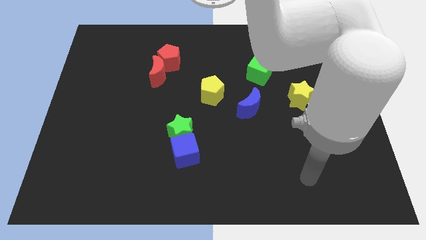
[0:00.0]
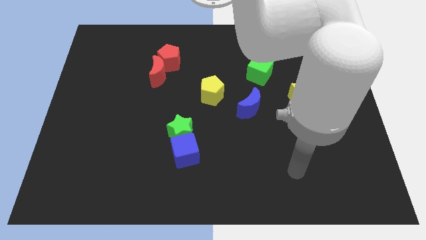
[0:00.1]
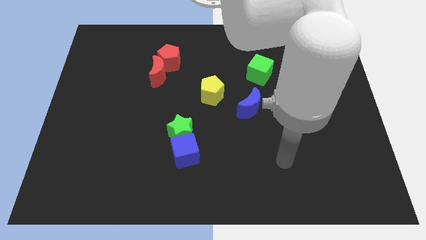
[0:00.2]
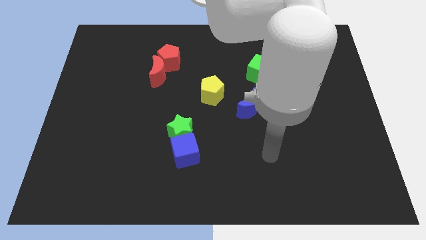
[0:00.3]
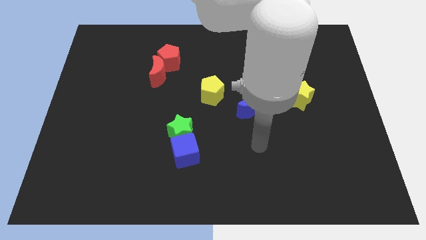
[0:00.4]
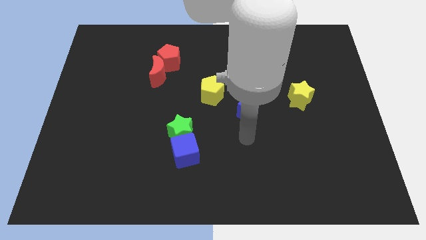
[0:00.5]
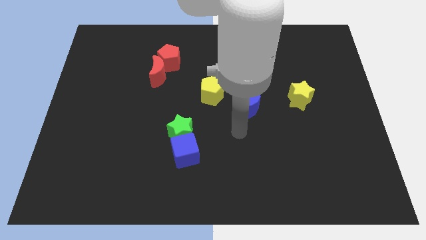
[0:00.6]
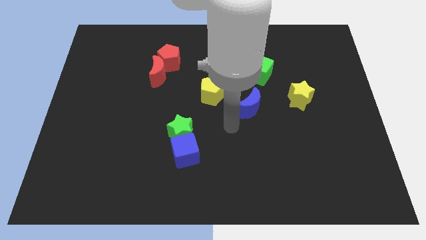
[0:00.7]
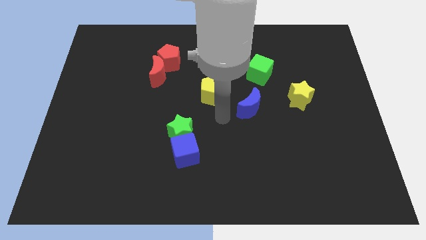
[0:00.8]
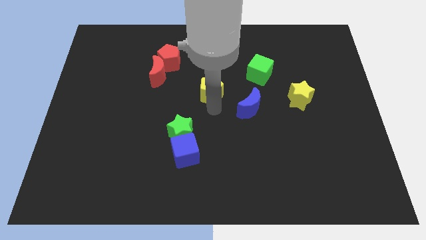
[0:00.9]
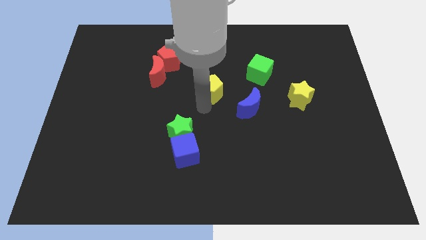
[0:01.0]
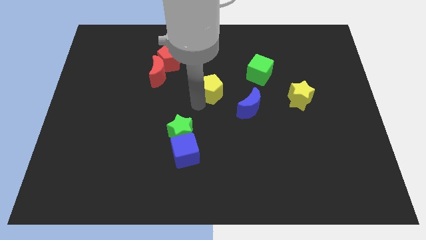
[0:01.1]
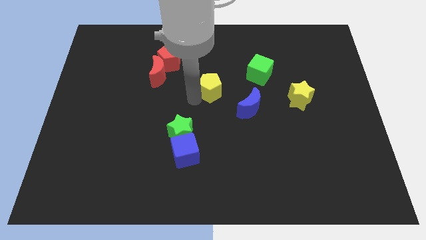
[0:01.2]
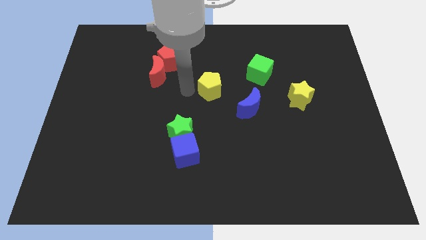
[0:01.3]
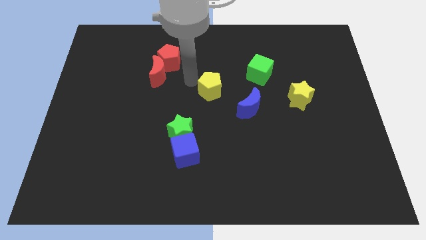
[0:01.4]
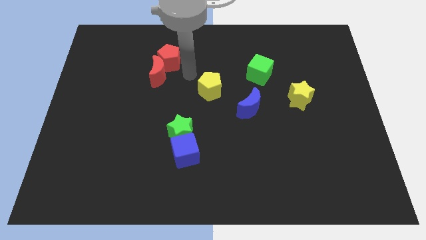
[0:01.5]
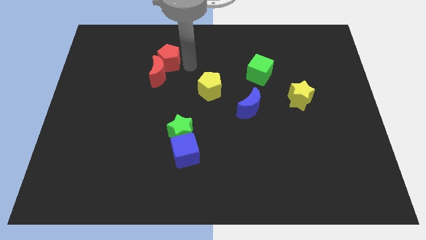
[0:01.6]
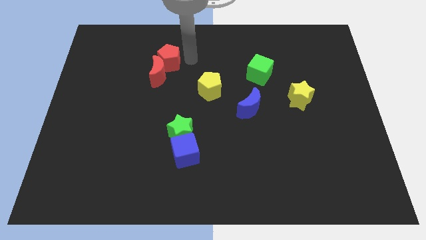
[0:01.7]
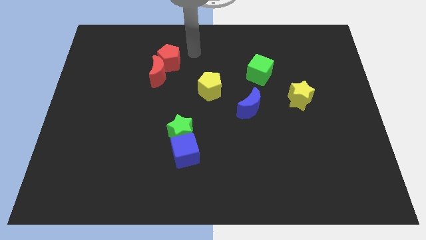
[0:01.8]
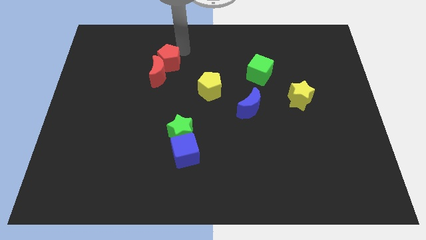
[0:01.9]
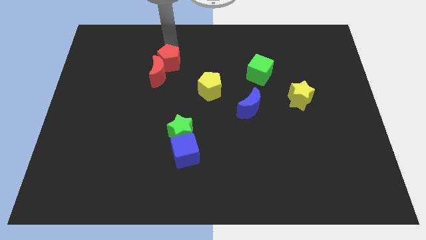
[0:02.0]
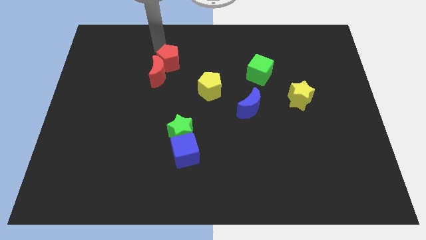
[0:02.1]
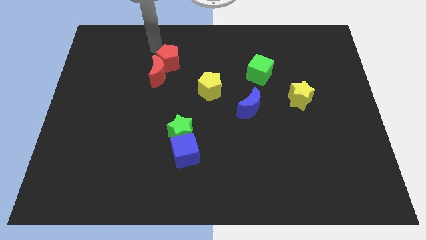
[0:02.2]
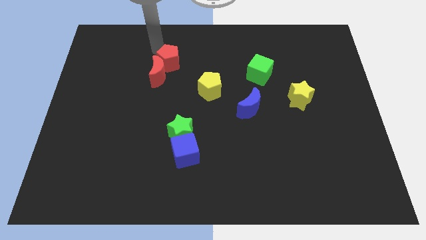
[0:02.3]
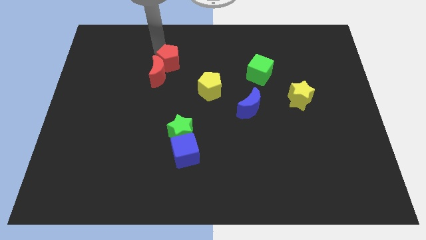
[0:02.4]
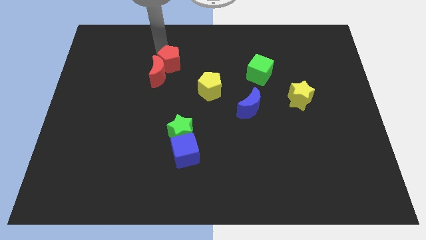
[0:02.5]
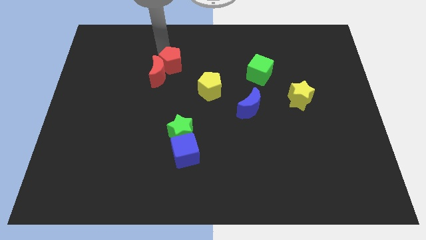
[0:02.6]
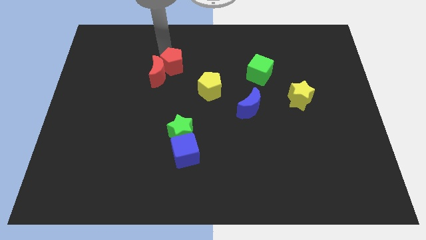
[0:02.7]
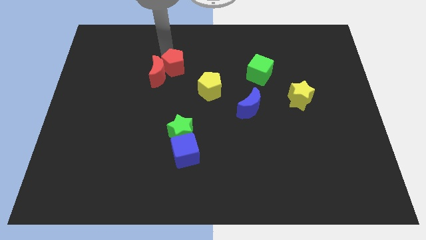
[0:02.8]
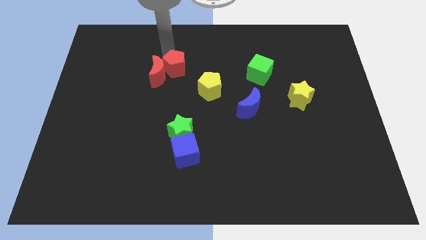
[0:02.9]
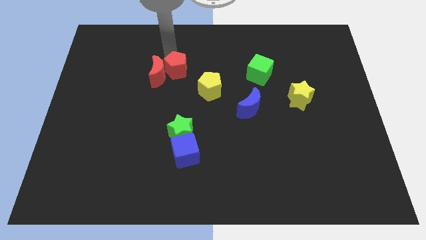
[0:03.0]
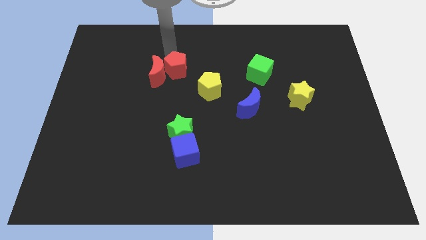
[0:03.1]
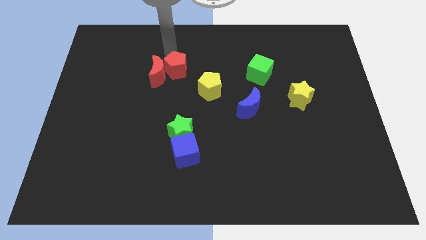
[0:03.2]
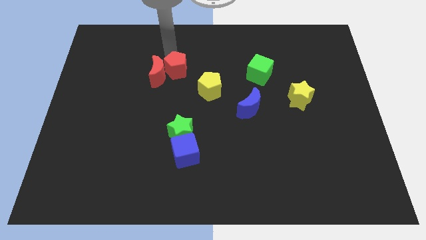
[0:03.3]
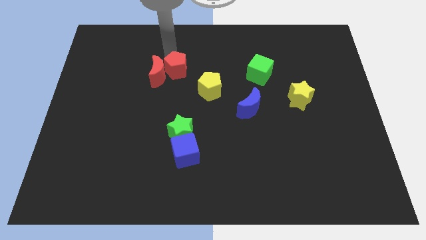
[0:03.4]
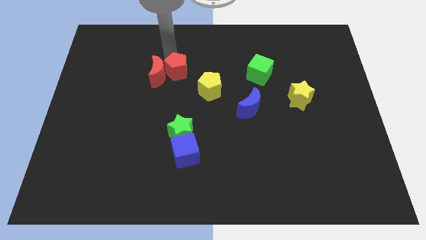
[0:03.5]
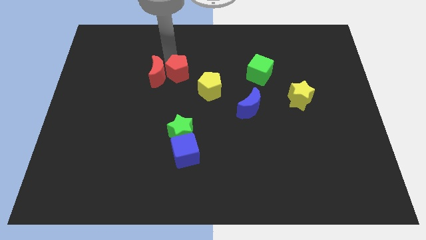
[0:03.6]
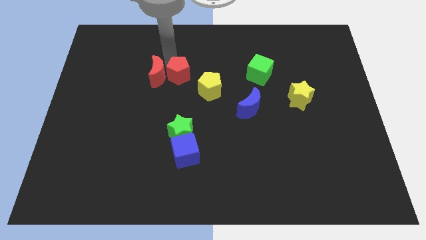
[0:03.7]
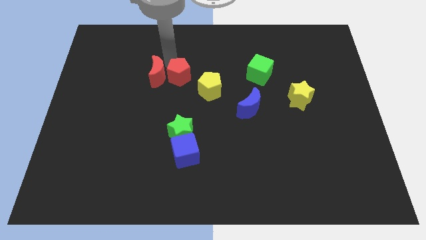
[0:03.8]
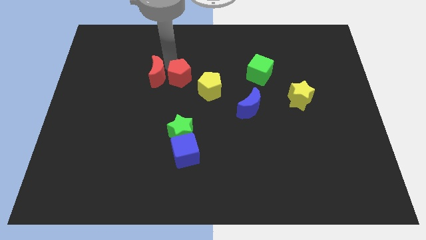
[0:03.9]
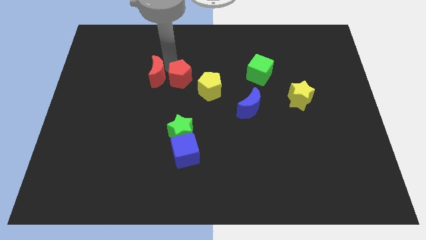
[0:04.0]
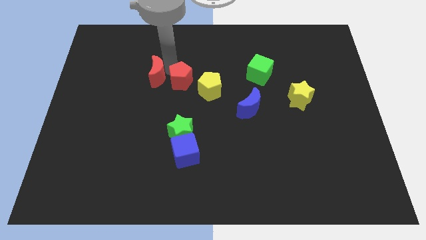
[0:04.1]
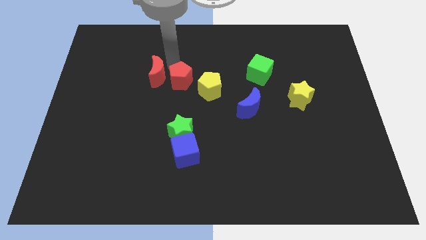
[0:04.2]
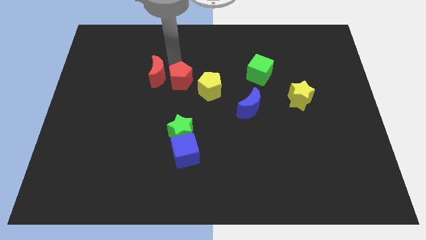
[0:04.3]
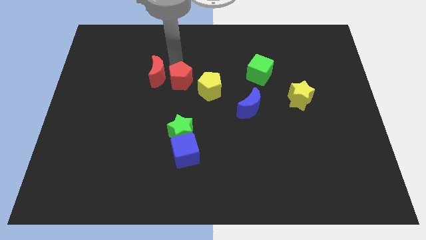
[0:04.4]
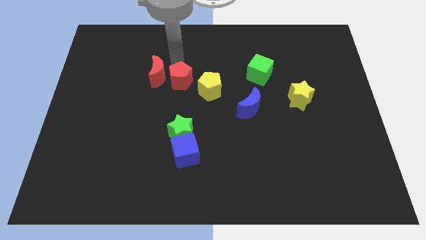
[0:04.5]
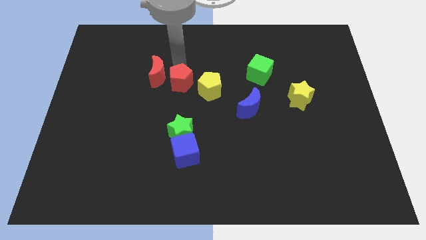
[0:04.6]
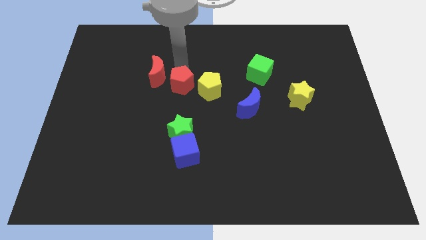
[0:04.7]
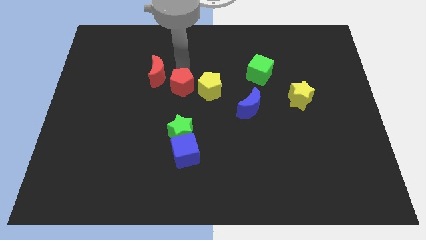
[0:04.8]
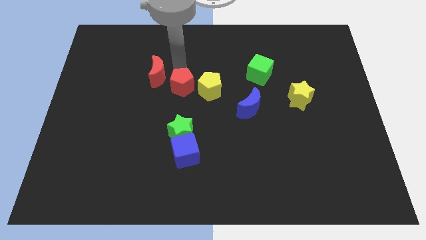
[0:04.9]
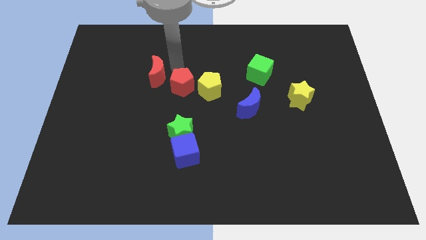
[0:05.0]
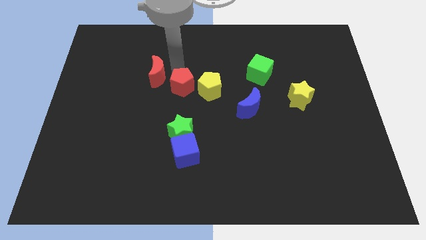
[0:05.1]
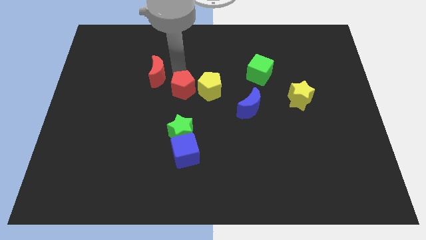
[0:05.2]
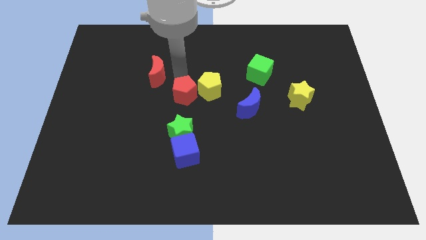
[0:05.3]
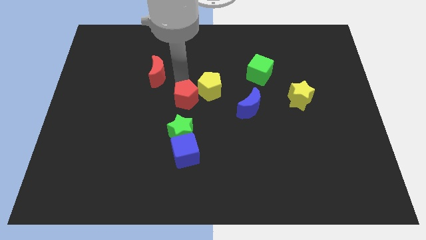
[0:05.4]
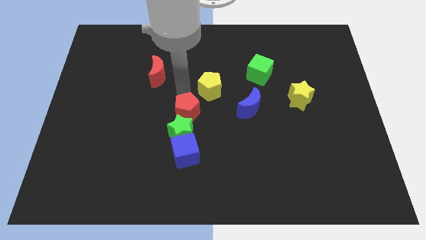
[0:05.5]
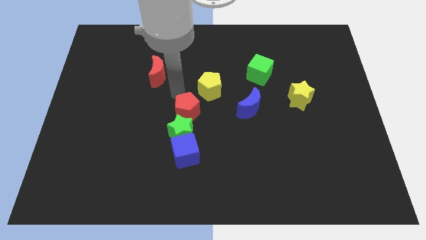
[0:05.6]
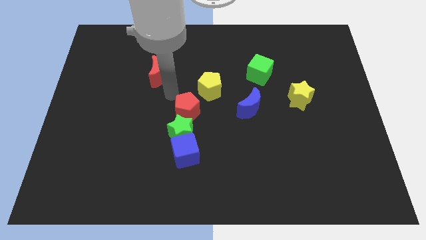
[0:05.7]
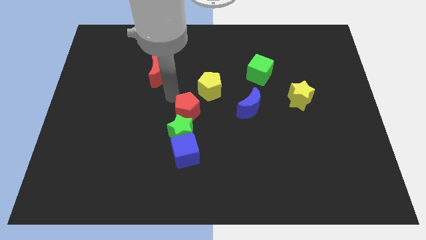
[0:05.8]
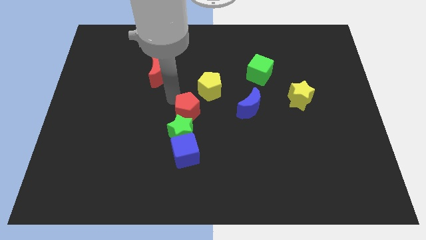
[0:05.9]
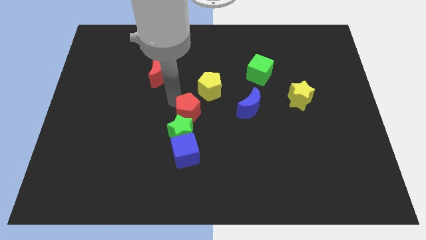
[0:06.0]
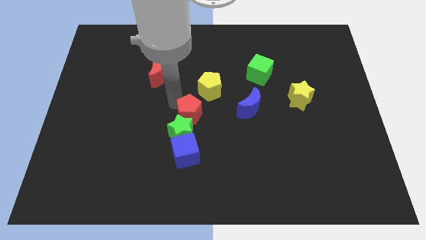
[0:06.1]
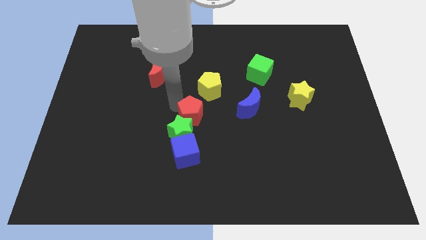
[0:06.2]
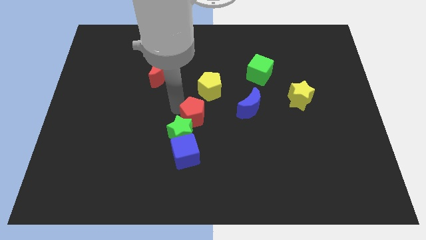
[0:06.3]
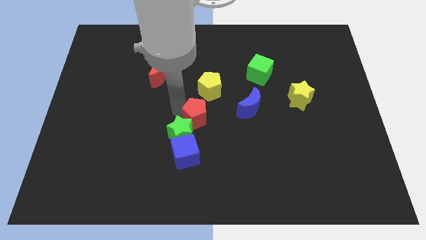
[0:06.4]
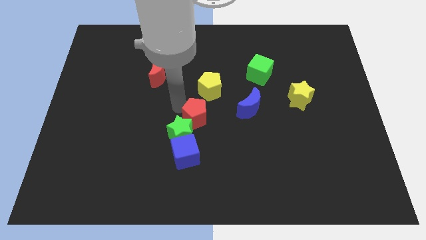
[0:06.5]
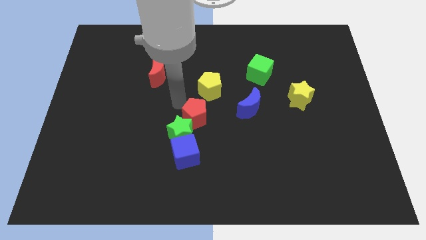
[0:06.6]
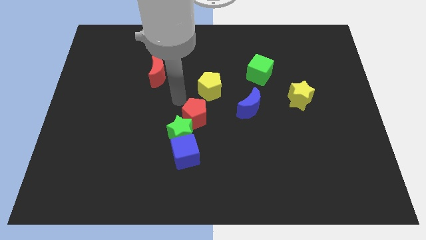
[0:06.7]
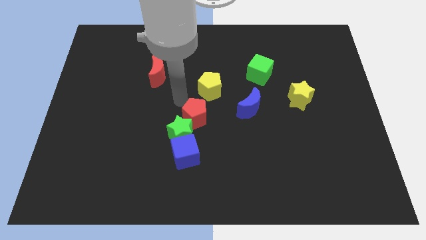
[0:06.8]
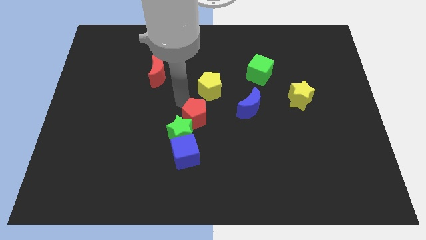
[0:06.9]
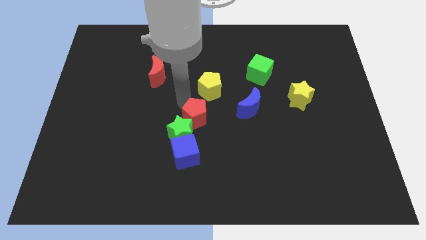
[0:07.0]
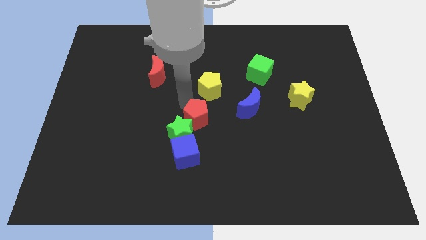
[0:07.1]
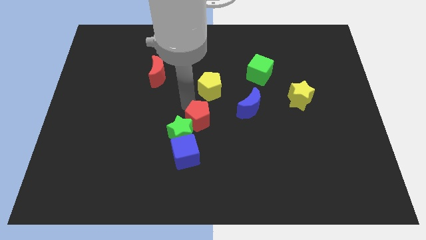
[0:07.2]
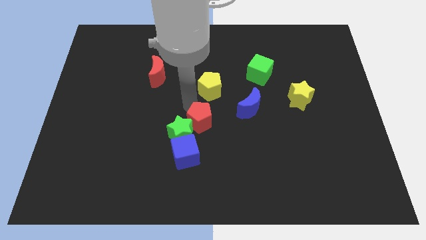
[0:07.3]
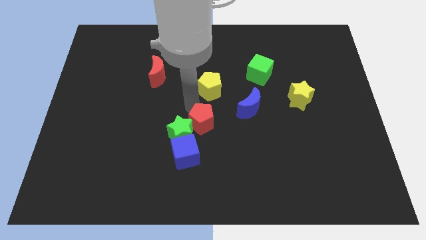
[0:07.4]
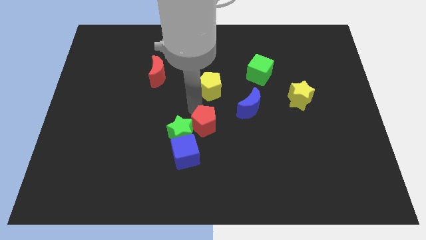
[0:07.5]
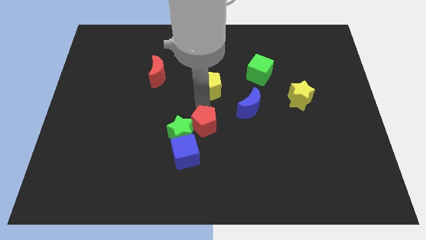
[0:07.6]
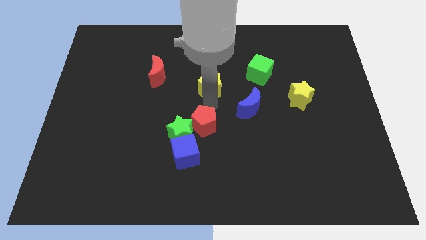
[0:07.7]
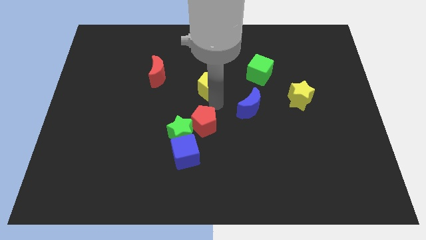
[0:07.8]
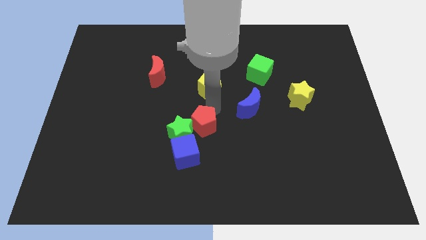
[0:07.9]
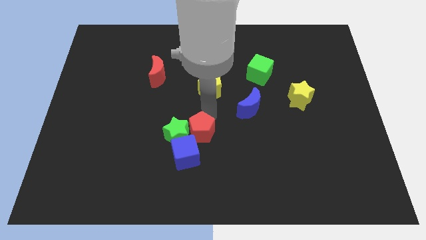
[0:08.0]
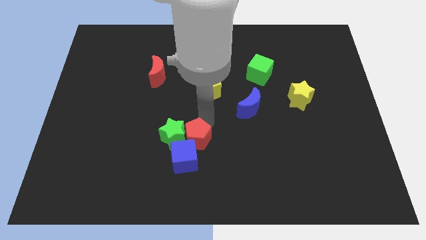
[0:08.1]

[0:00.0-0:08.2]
slide the red pentagon to the blue cube
